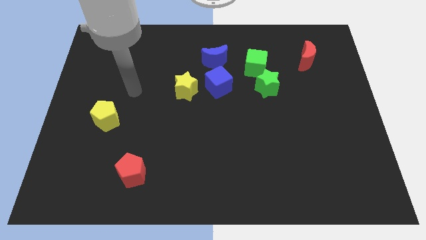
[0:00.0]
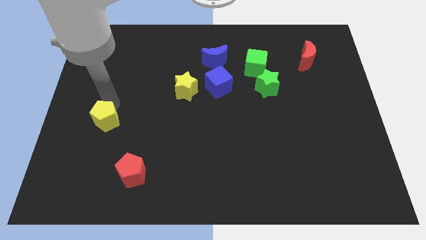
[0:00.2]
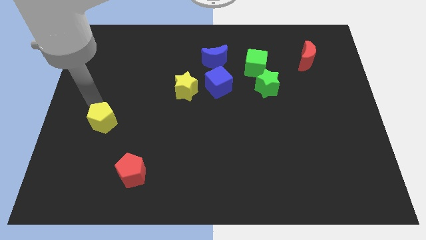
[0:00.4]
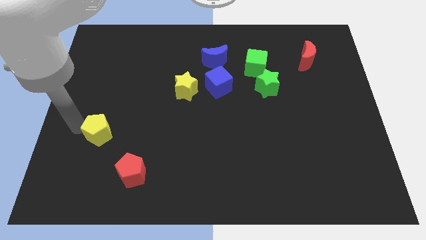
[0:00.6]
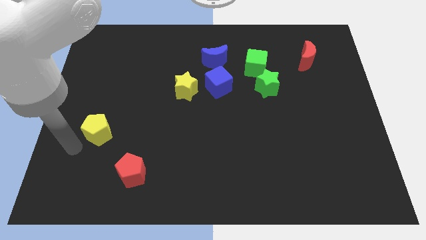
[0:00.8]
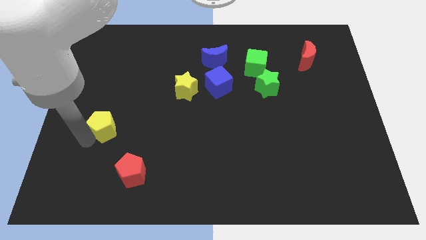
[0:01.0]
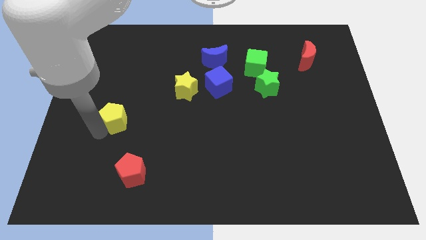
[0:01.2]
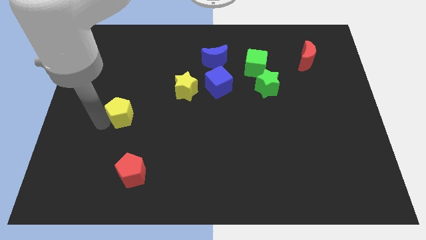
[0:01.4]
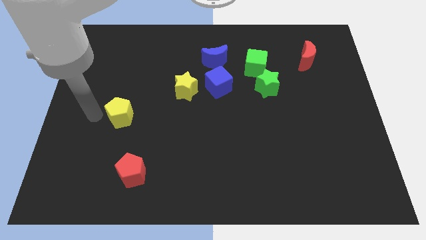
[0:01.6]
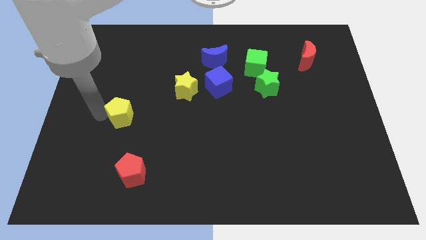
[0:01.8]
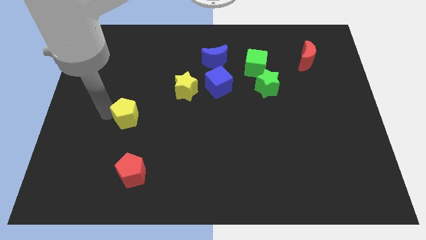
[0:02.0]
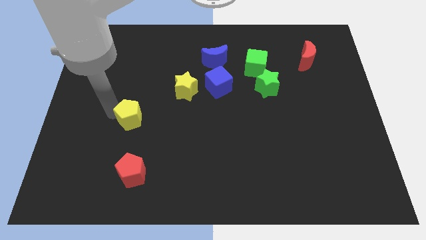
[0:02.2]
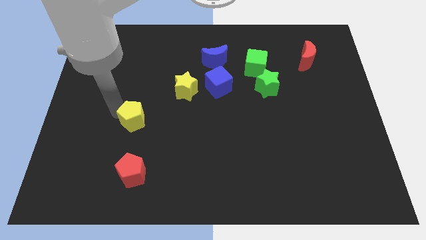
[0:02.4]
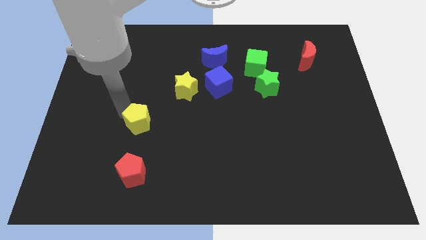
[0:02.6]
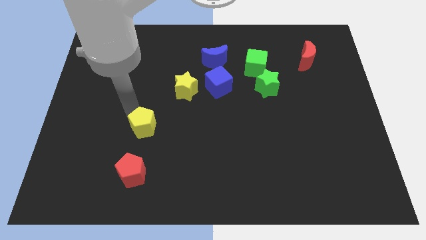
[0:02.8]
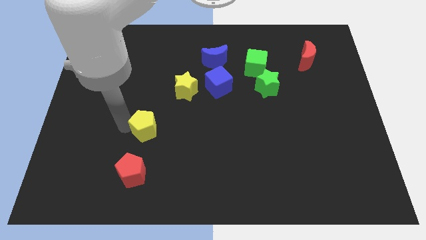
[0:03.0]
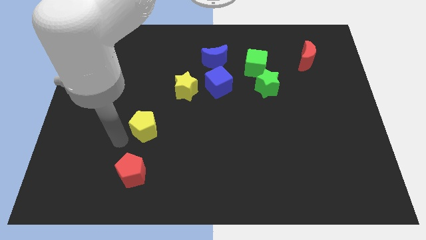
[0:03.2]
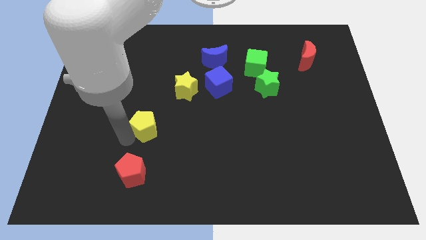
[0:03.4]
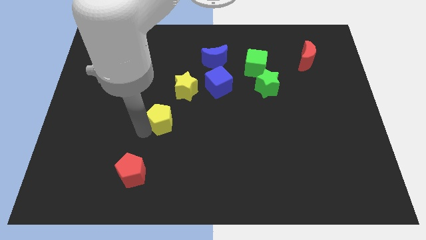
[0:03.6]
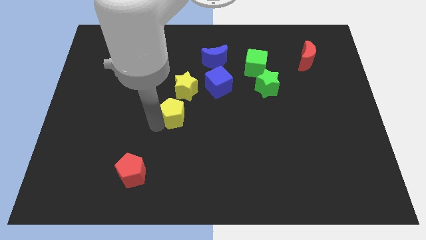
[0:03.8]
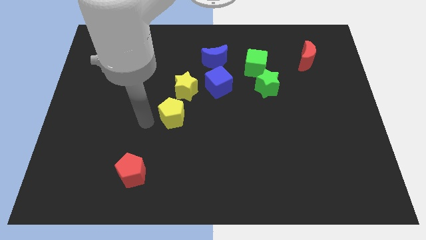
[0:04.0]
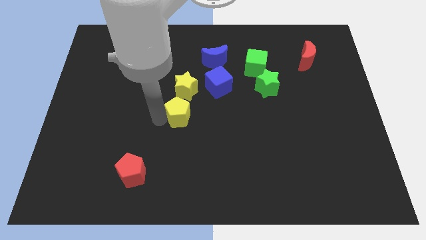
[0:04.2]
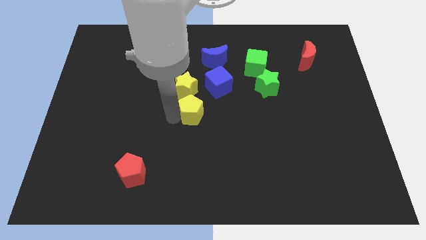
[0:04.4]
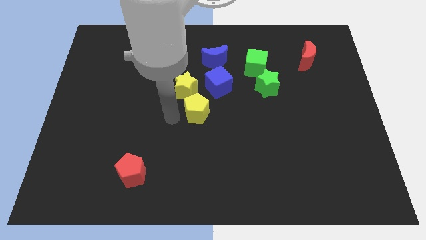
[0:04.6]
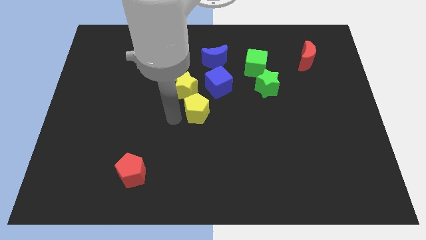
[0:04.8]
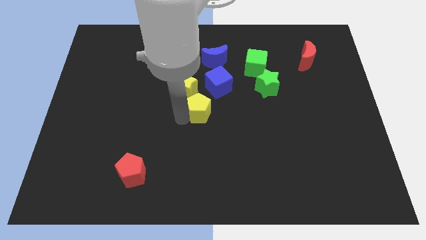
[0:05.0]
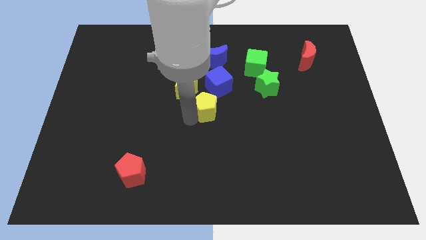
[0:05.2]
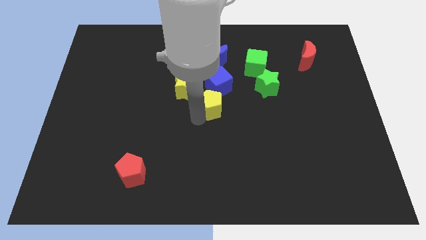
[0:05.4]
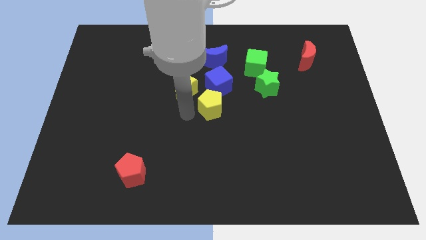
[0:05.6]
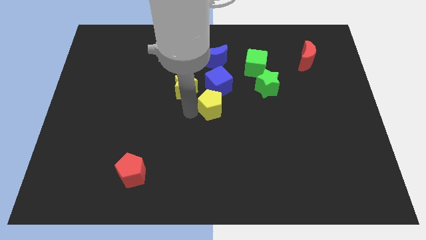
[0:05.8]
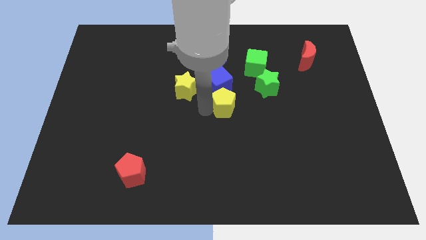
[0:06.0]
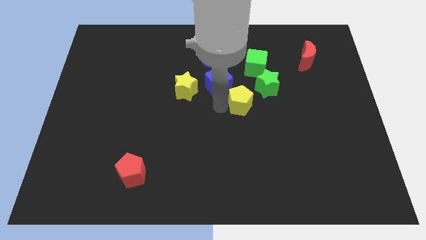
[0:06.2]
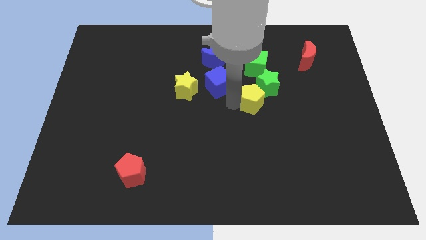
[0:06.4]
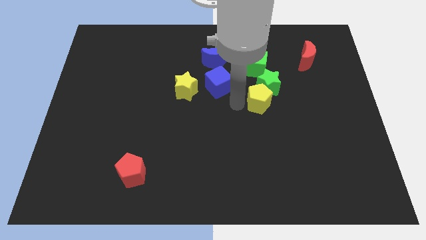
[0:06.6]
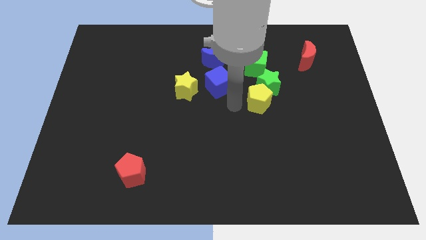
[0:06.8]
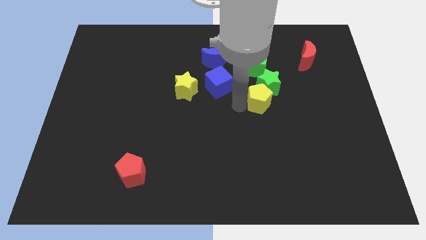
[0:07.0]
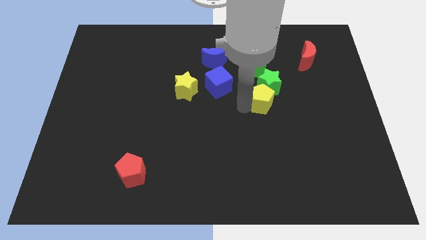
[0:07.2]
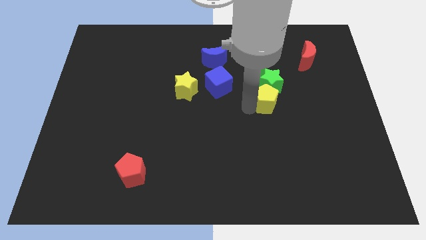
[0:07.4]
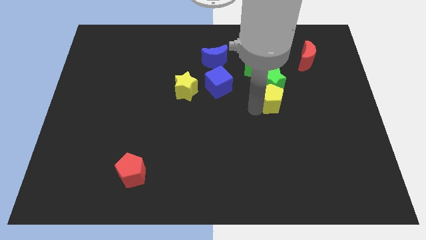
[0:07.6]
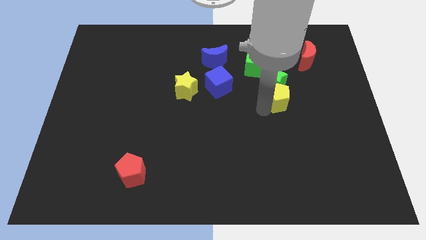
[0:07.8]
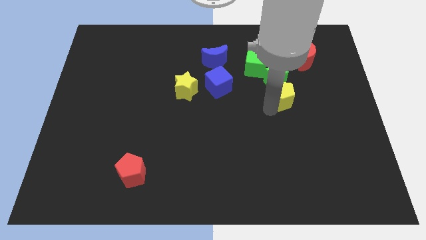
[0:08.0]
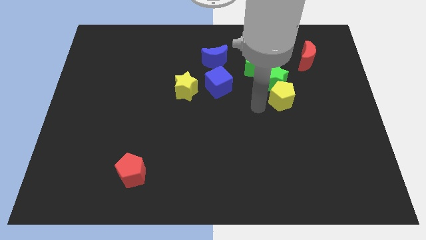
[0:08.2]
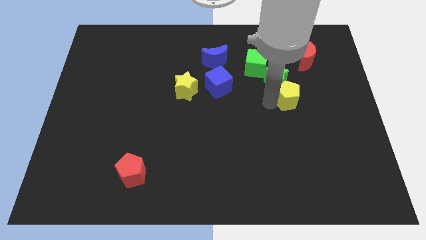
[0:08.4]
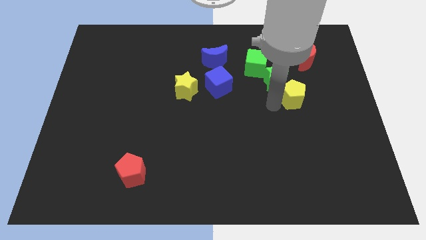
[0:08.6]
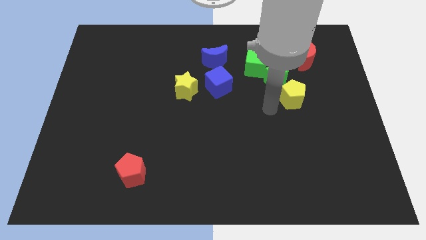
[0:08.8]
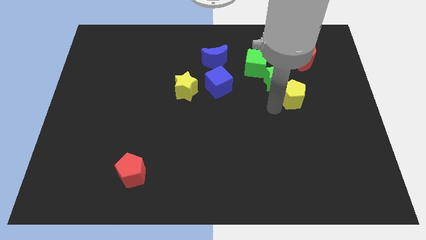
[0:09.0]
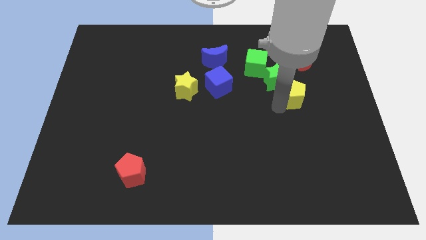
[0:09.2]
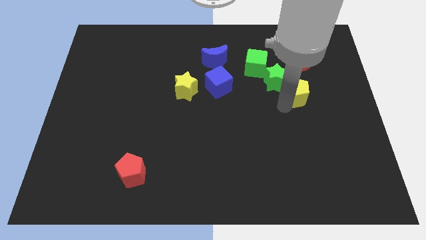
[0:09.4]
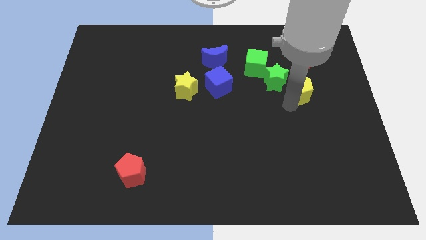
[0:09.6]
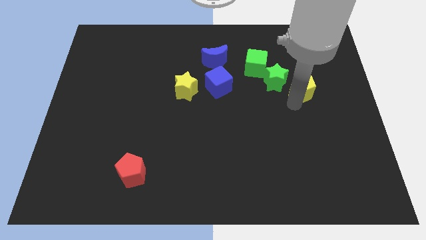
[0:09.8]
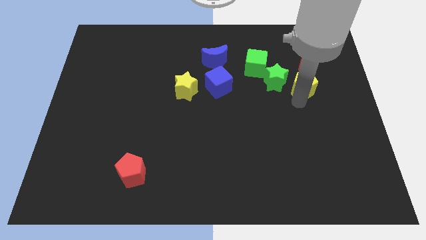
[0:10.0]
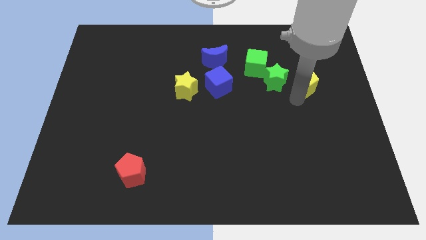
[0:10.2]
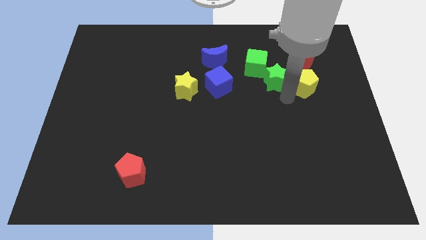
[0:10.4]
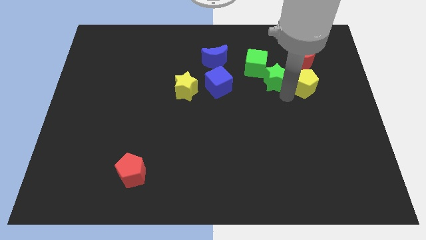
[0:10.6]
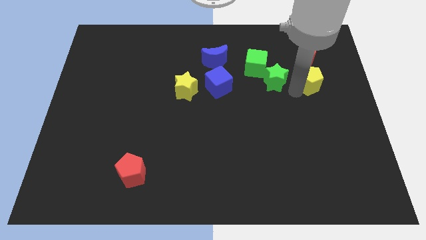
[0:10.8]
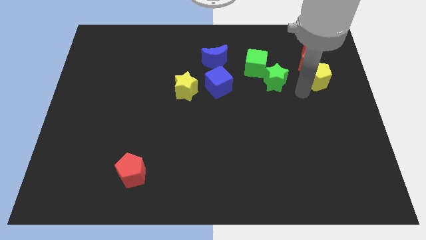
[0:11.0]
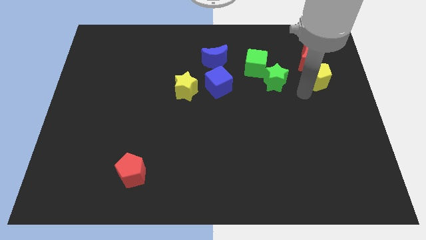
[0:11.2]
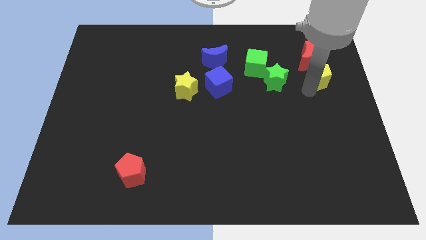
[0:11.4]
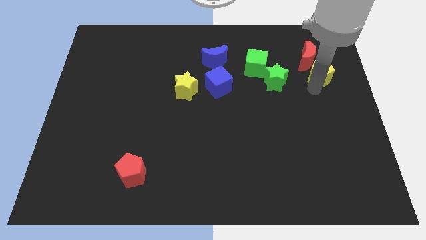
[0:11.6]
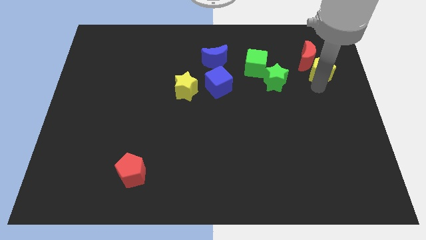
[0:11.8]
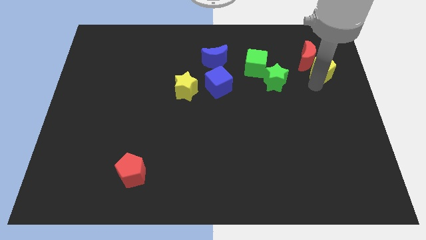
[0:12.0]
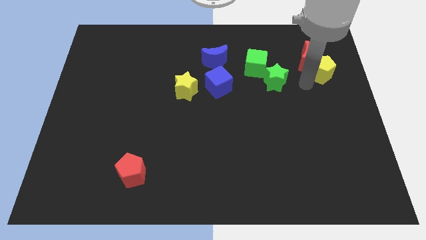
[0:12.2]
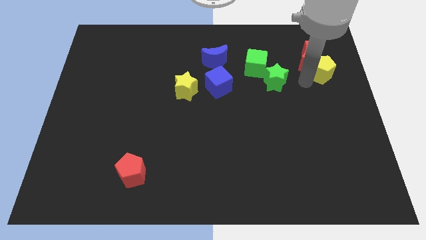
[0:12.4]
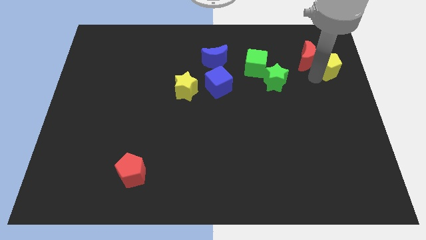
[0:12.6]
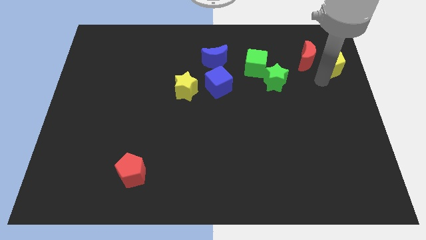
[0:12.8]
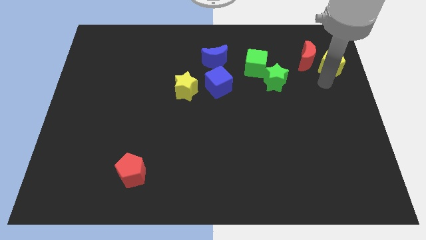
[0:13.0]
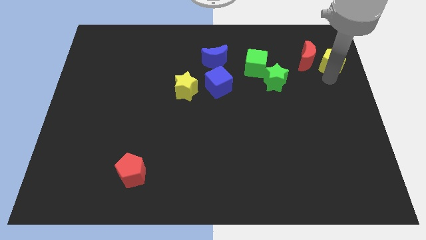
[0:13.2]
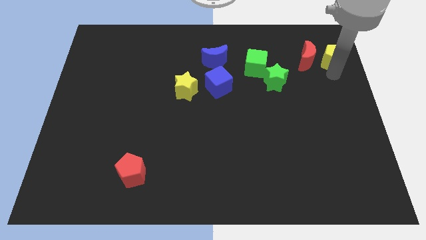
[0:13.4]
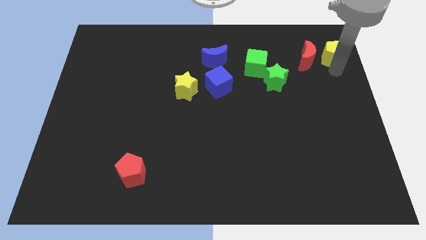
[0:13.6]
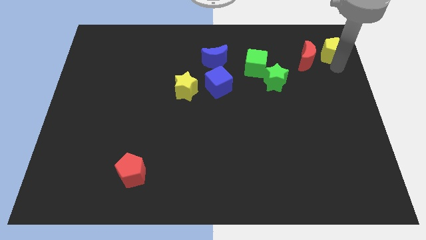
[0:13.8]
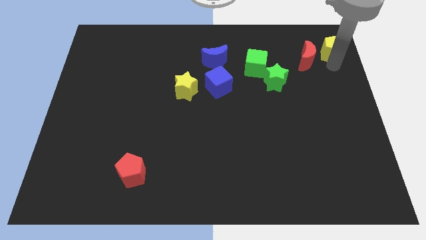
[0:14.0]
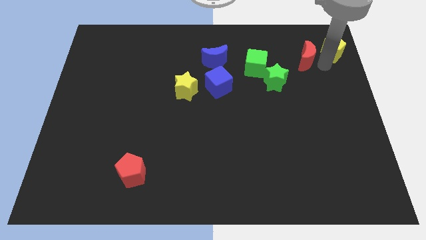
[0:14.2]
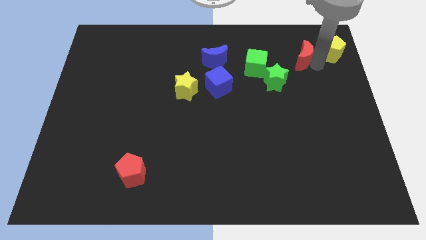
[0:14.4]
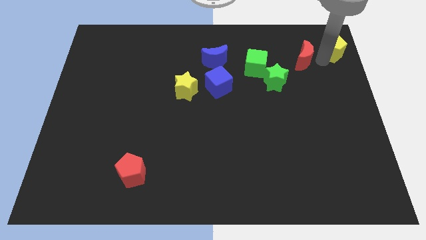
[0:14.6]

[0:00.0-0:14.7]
slide the yellow pentagon to the top right of the board
